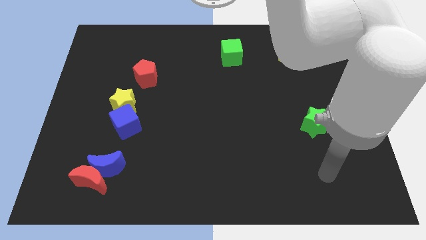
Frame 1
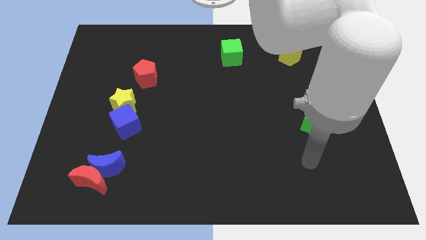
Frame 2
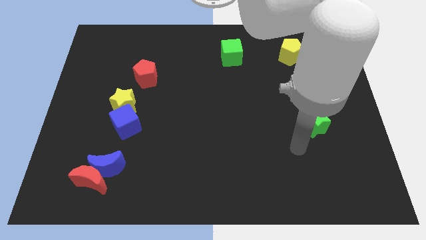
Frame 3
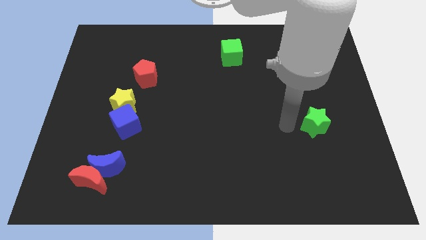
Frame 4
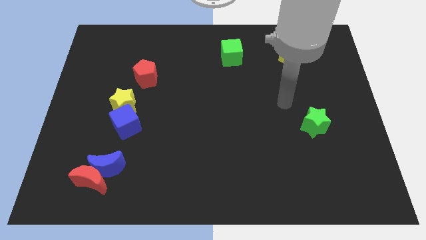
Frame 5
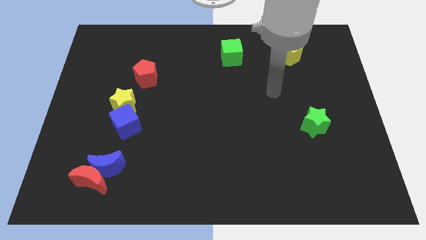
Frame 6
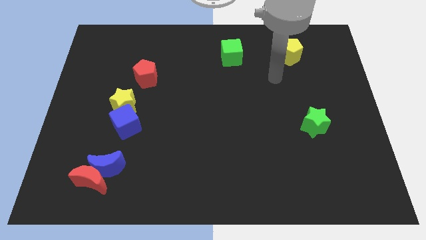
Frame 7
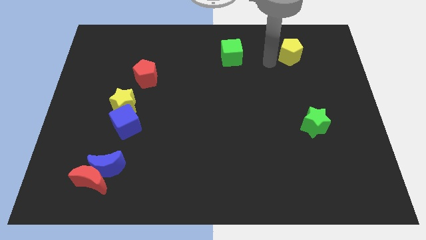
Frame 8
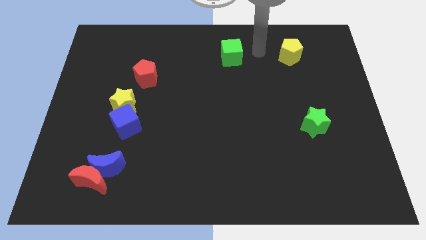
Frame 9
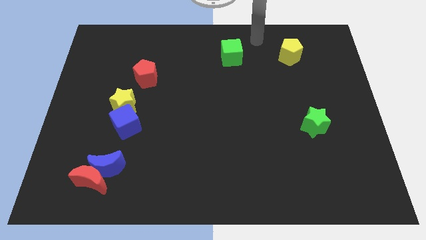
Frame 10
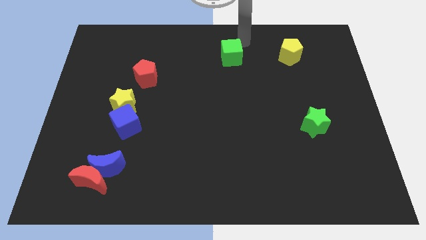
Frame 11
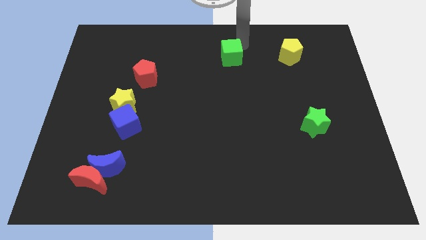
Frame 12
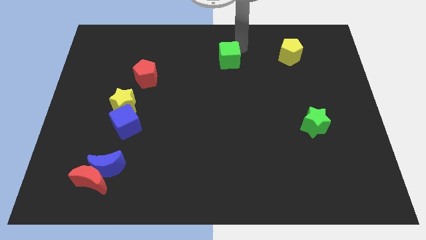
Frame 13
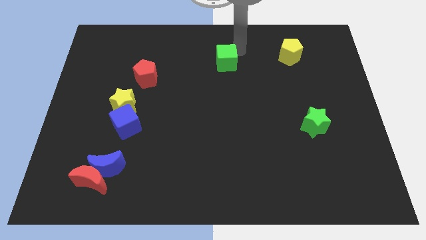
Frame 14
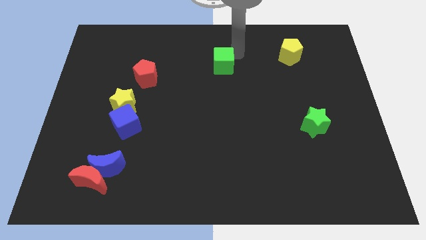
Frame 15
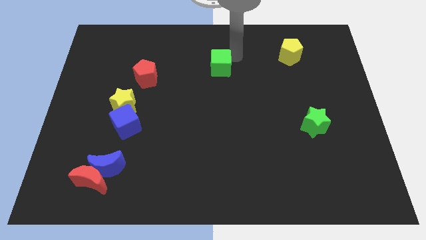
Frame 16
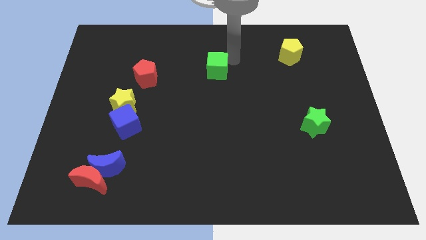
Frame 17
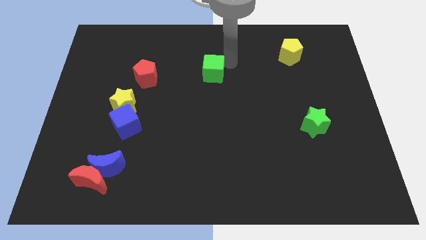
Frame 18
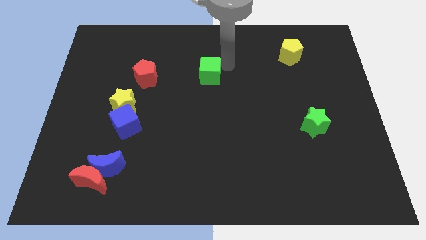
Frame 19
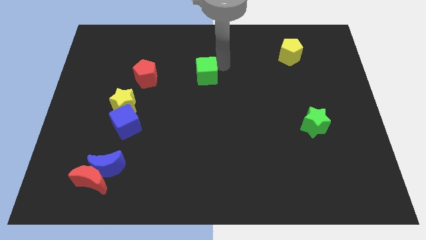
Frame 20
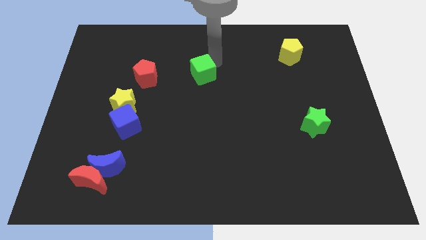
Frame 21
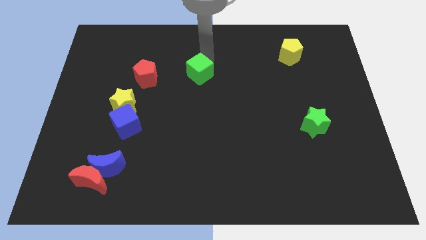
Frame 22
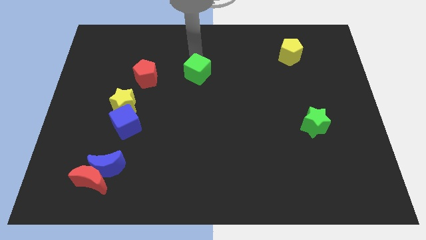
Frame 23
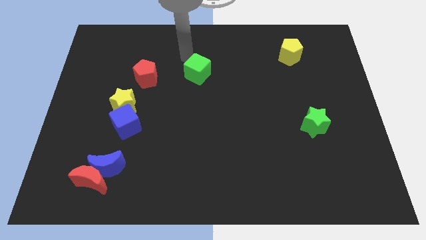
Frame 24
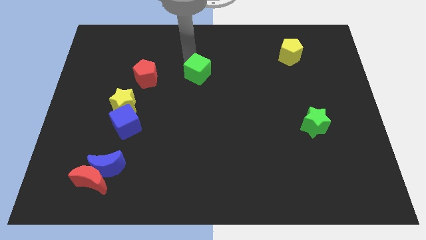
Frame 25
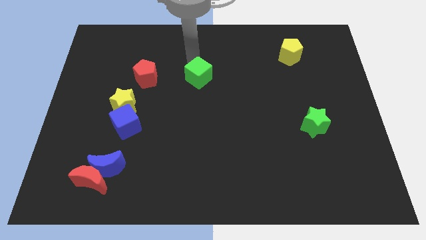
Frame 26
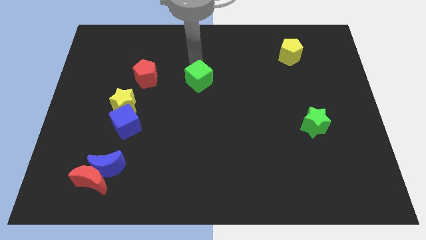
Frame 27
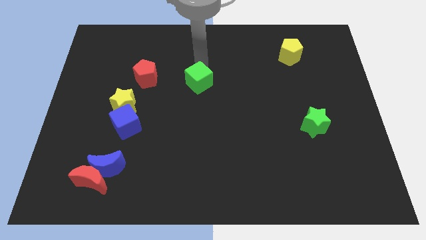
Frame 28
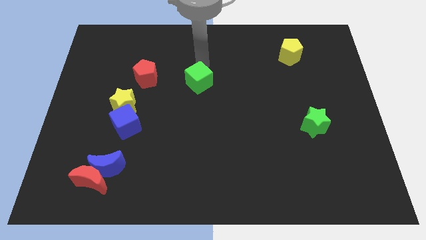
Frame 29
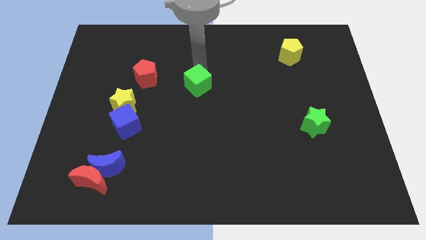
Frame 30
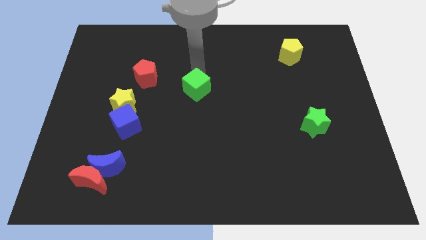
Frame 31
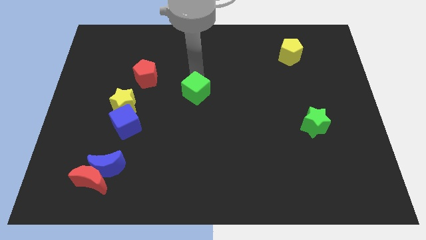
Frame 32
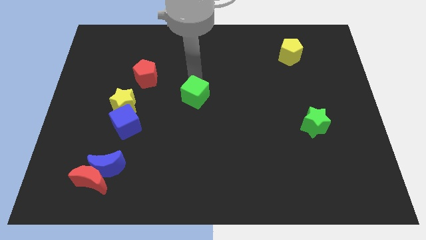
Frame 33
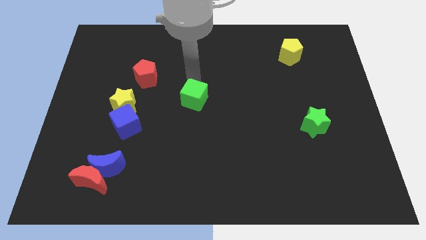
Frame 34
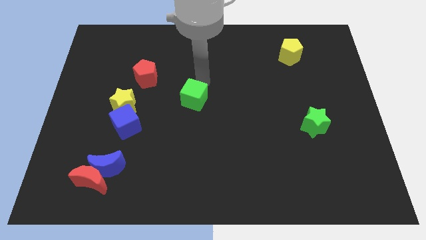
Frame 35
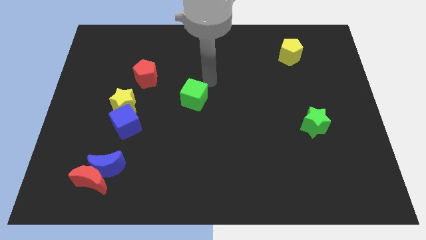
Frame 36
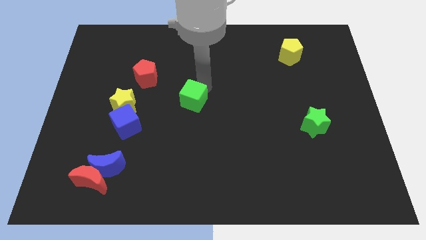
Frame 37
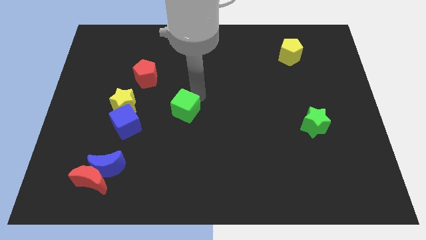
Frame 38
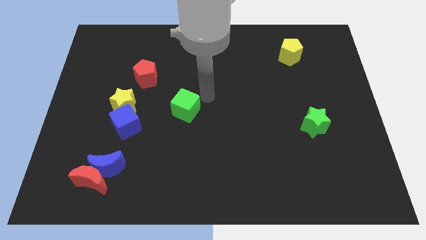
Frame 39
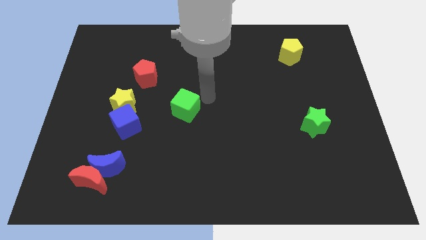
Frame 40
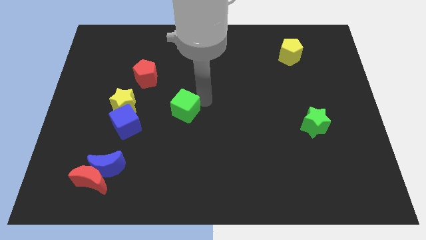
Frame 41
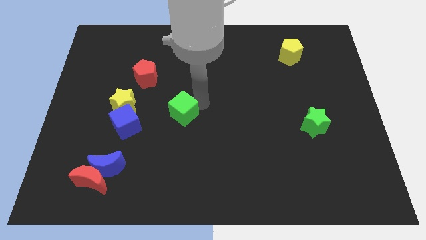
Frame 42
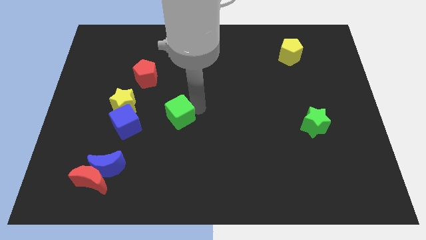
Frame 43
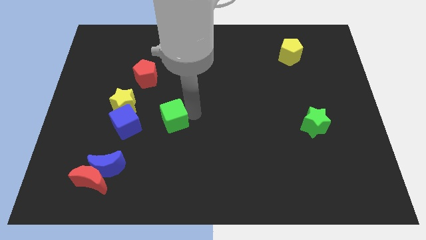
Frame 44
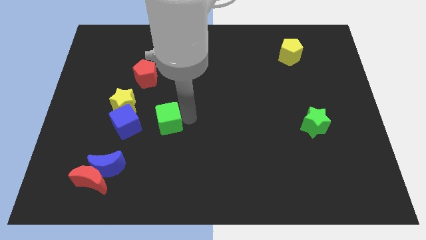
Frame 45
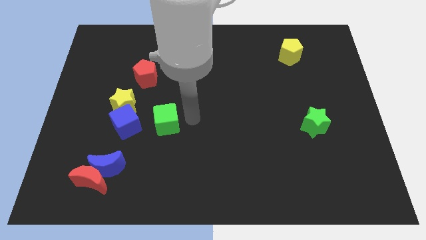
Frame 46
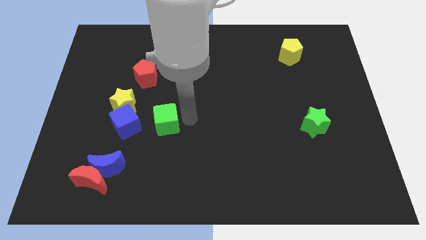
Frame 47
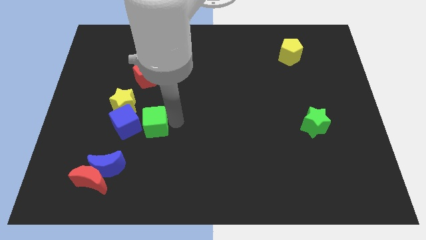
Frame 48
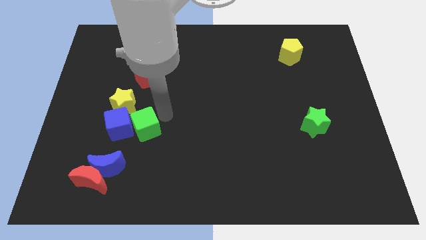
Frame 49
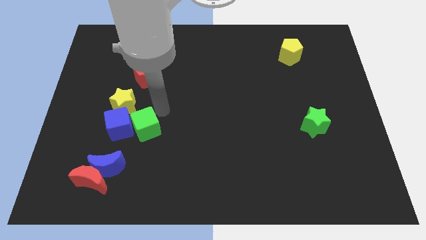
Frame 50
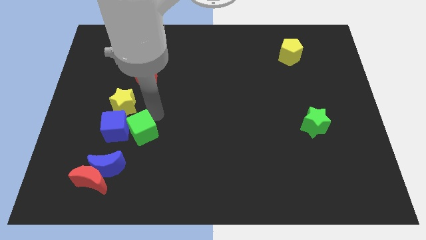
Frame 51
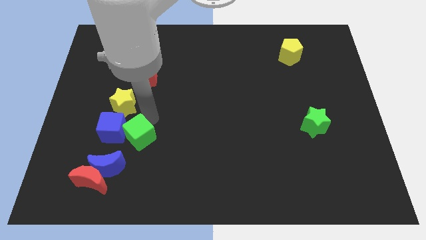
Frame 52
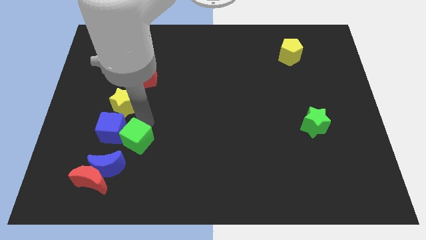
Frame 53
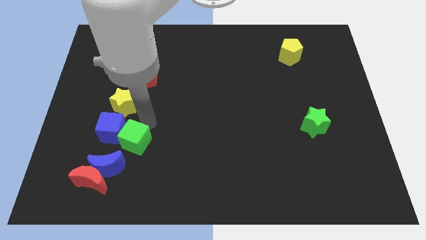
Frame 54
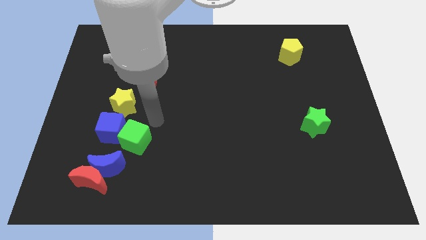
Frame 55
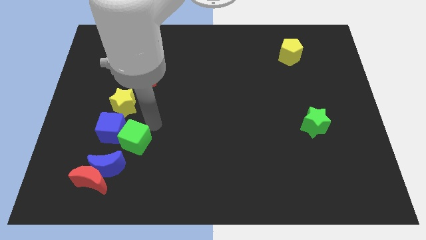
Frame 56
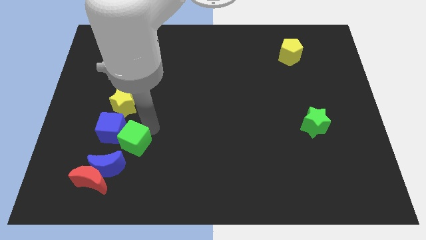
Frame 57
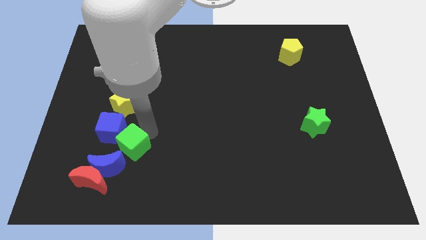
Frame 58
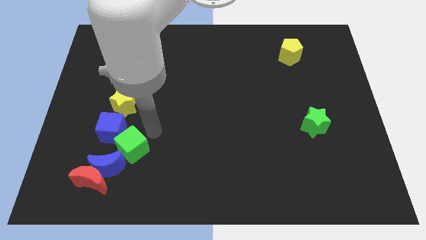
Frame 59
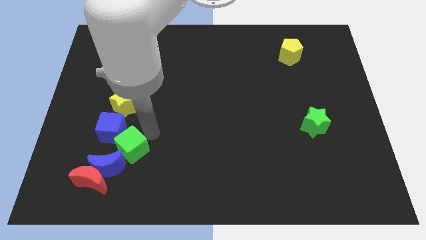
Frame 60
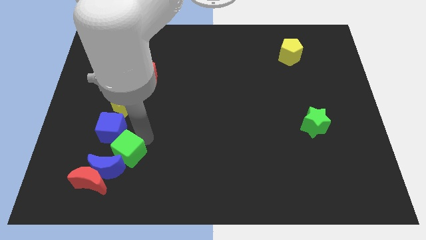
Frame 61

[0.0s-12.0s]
put the green cube to the blue moon

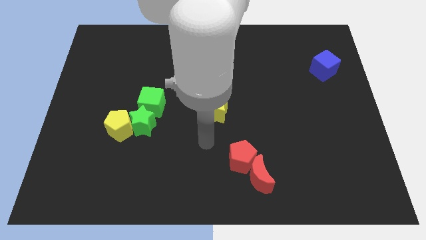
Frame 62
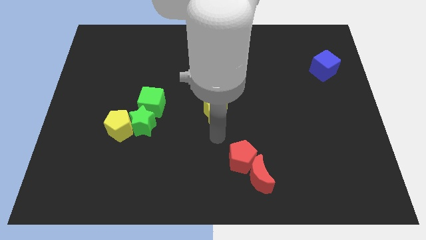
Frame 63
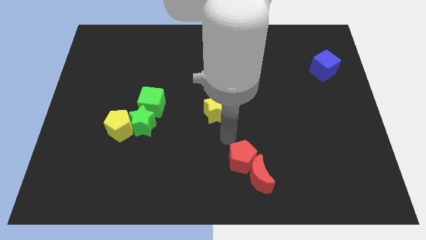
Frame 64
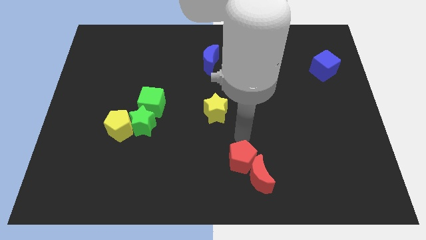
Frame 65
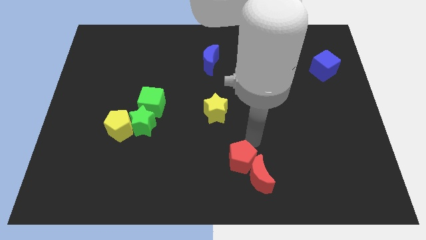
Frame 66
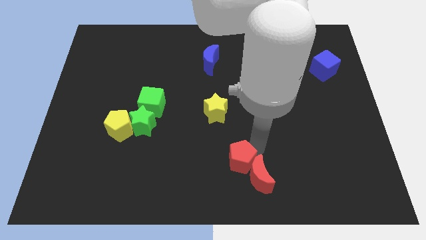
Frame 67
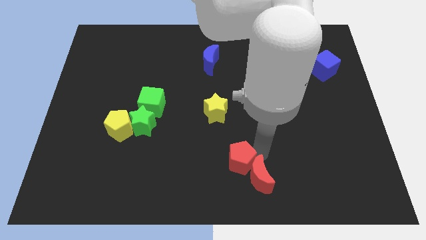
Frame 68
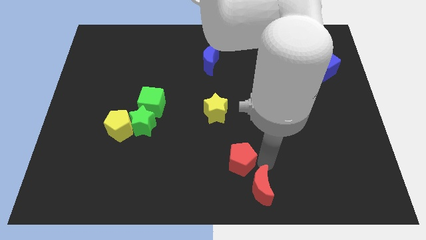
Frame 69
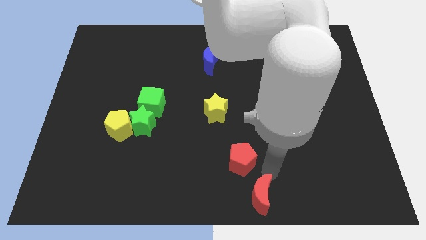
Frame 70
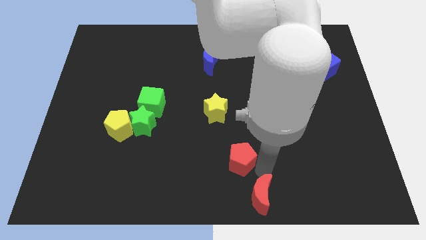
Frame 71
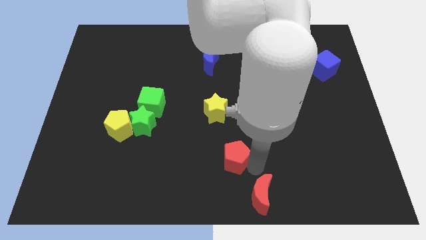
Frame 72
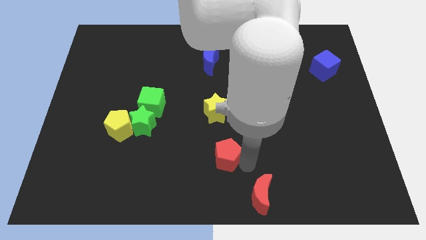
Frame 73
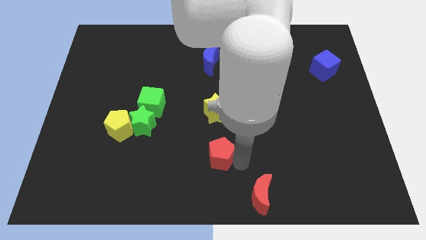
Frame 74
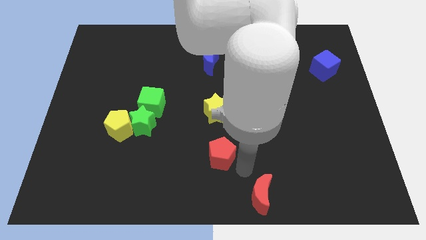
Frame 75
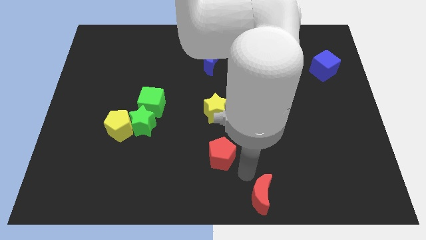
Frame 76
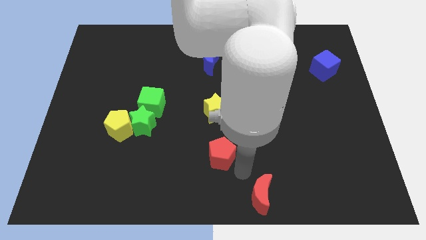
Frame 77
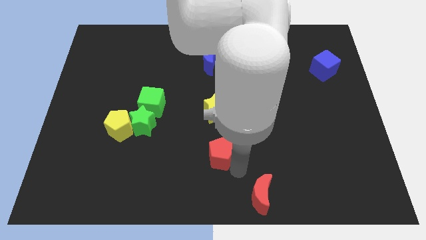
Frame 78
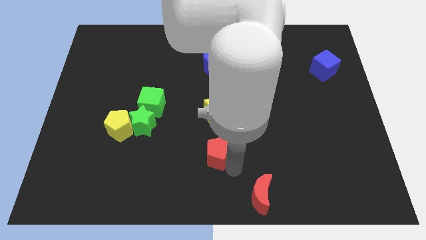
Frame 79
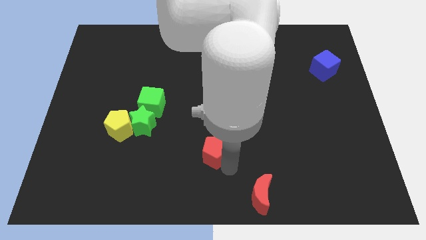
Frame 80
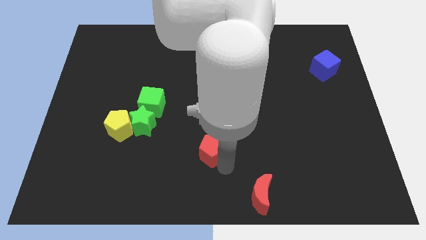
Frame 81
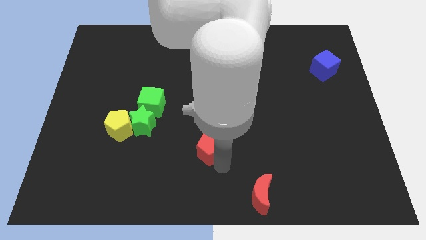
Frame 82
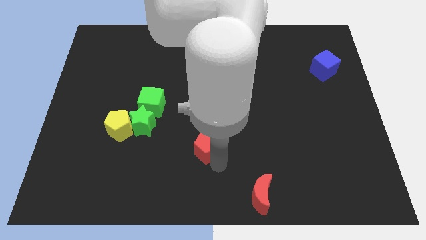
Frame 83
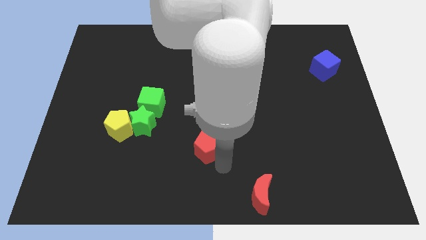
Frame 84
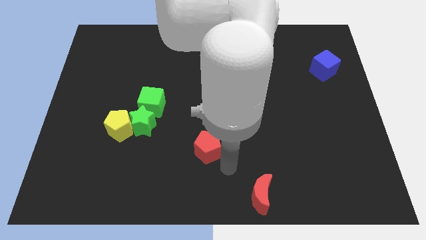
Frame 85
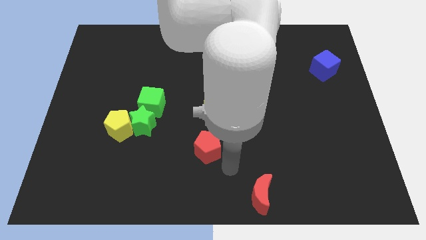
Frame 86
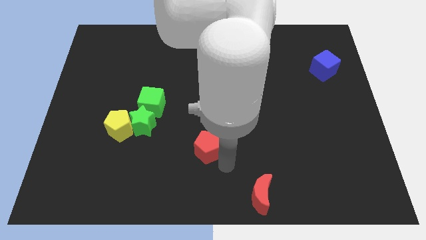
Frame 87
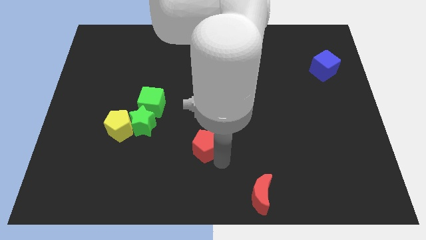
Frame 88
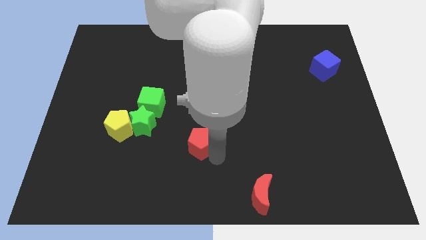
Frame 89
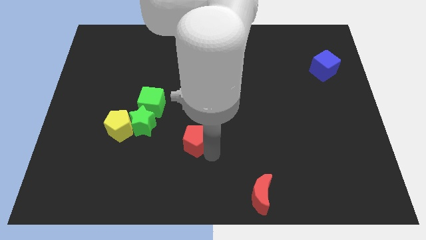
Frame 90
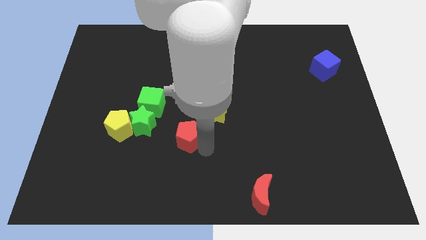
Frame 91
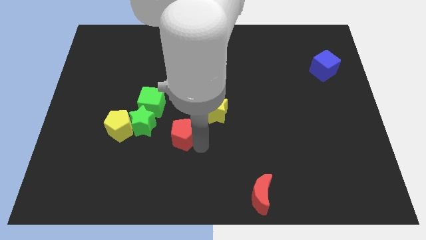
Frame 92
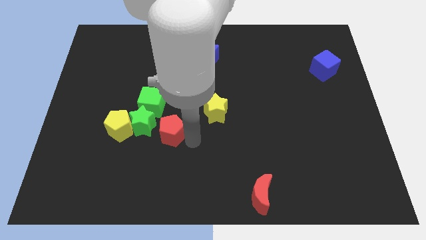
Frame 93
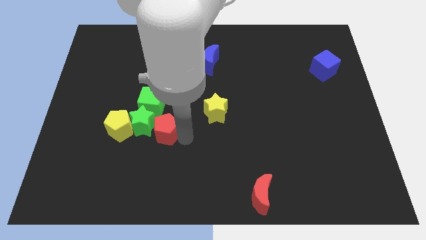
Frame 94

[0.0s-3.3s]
put the red pentagon close to the green star
